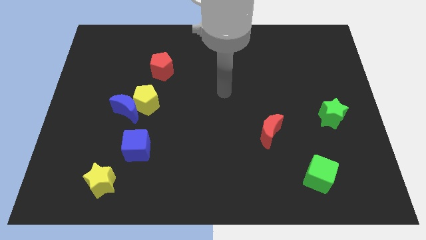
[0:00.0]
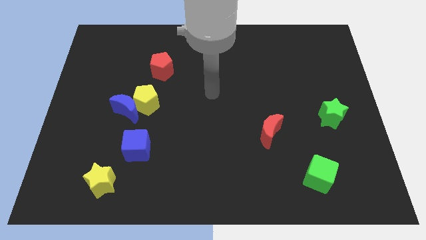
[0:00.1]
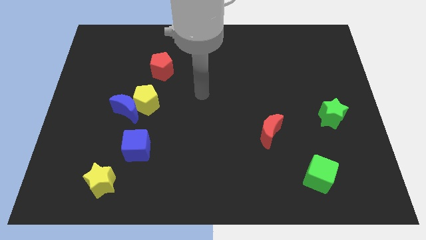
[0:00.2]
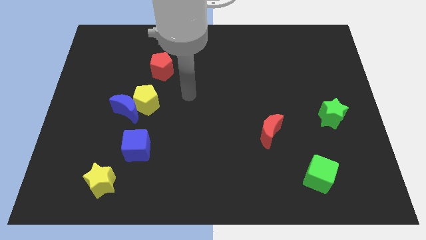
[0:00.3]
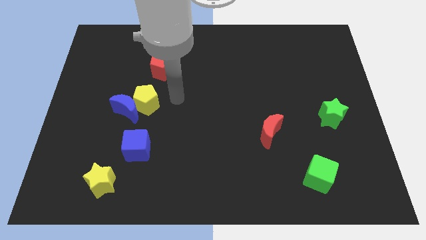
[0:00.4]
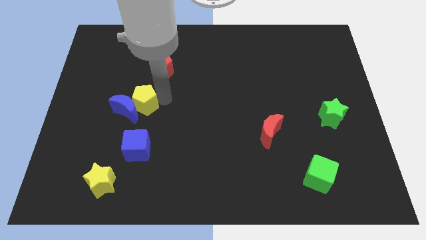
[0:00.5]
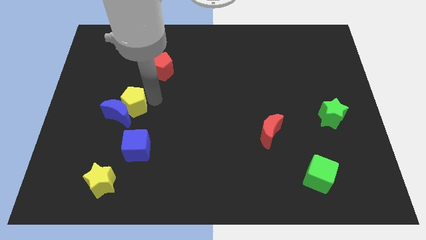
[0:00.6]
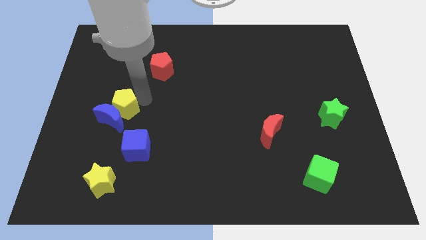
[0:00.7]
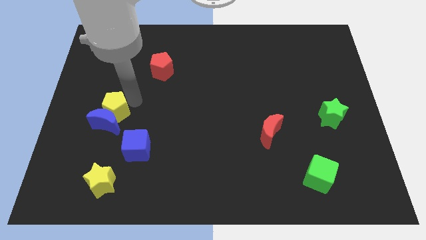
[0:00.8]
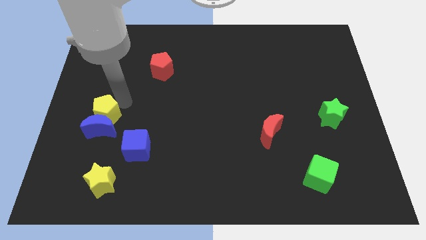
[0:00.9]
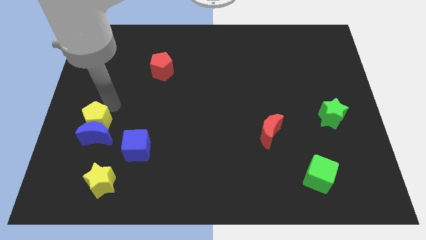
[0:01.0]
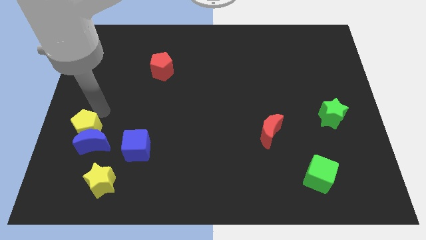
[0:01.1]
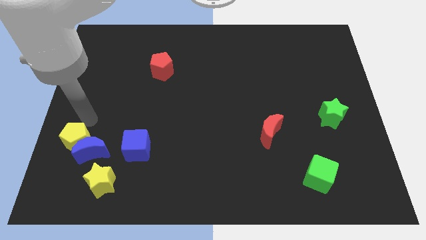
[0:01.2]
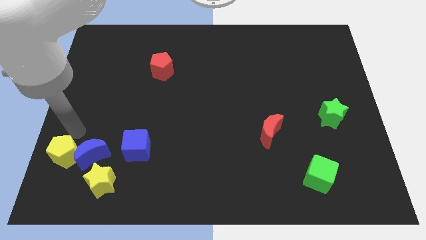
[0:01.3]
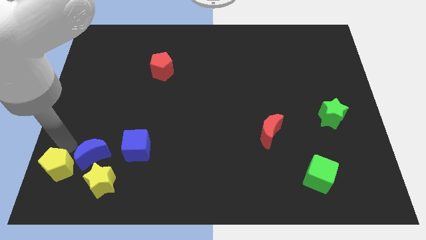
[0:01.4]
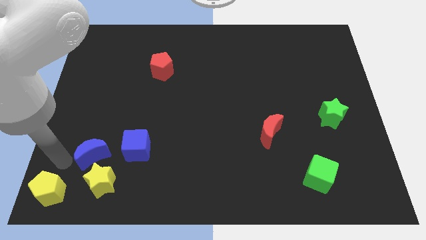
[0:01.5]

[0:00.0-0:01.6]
pull the blue moon apart from the yellow pentagon

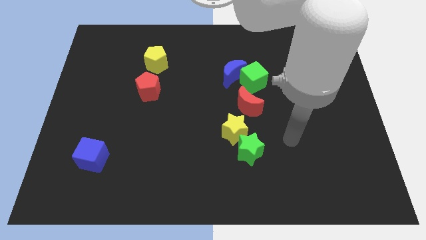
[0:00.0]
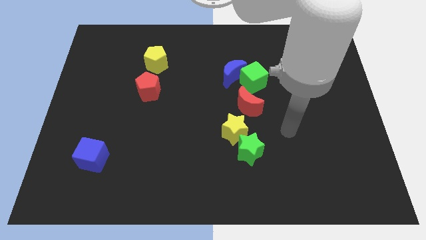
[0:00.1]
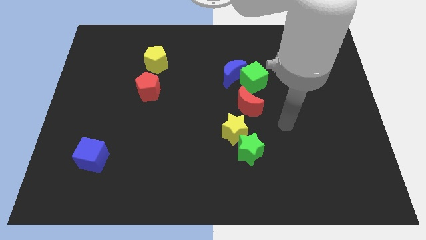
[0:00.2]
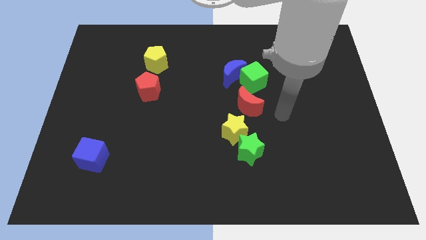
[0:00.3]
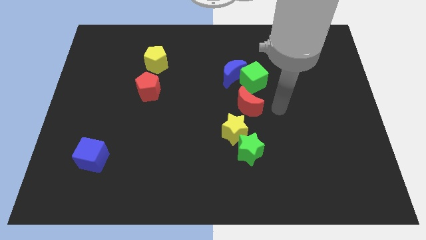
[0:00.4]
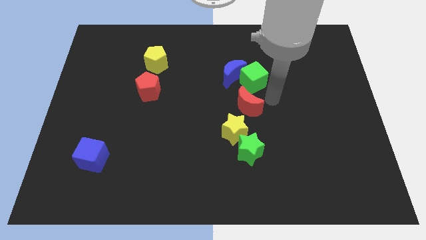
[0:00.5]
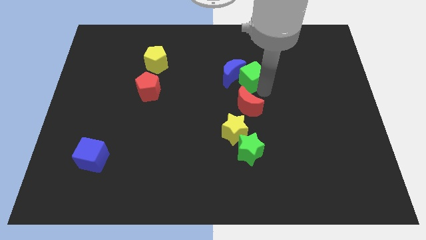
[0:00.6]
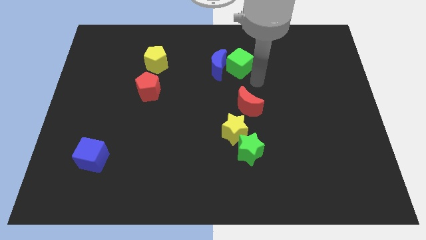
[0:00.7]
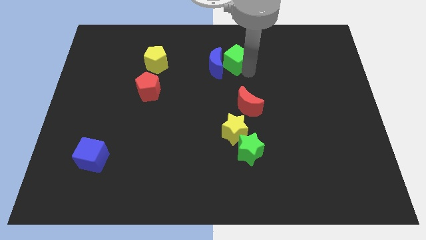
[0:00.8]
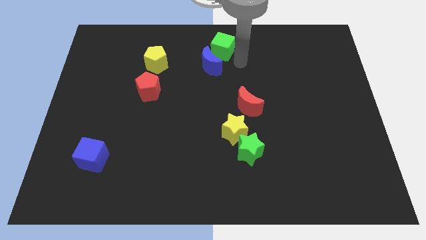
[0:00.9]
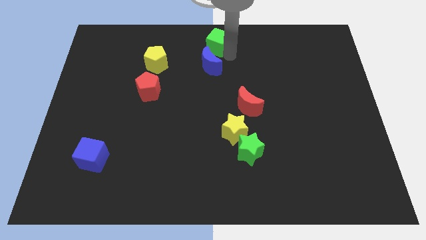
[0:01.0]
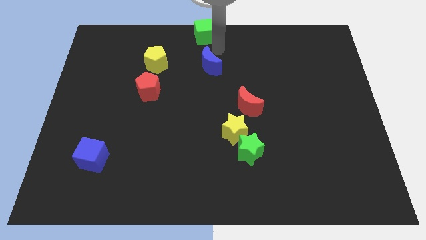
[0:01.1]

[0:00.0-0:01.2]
move the blue moon away from the green cube

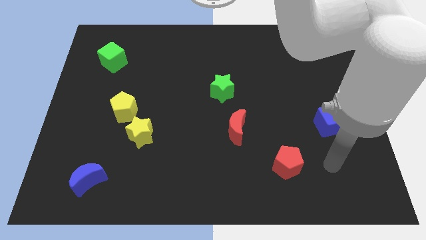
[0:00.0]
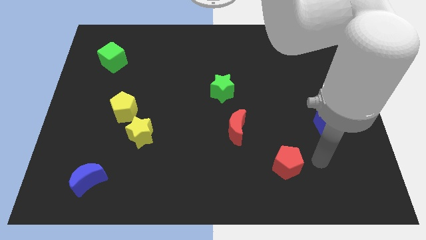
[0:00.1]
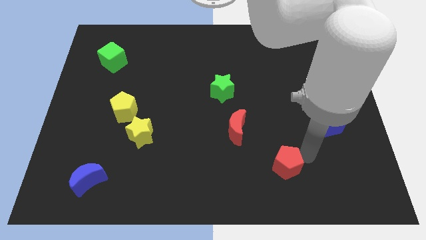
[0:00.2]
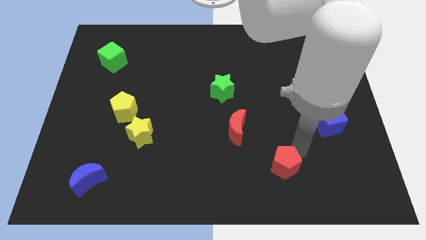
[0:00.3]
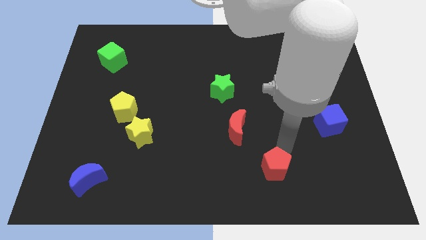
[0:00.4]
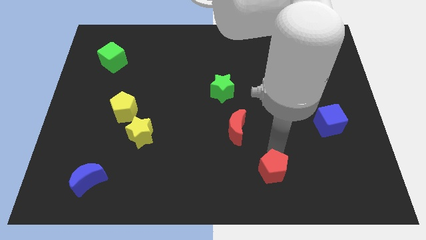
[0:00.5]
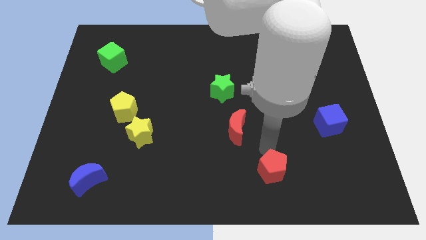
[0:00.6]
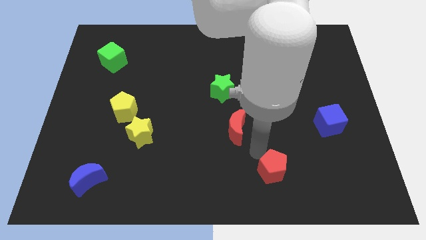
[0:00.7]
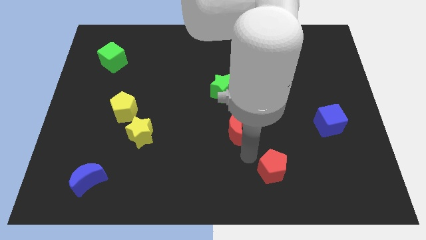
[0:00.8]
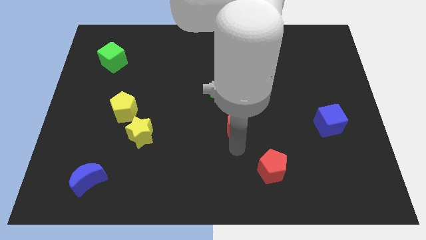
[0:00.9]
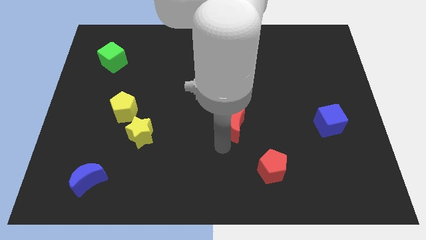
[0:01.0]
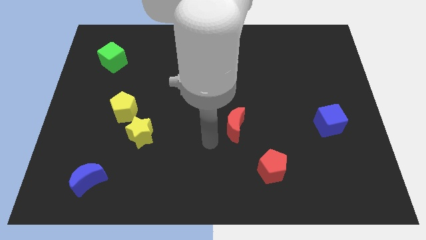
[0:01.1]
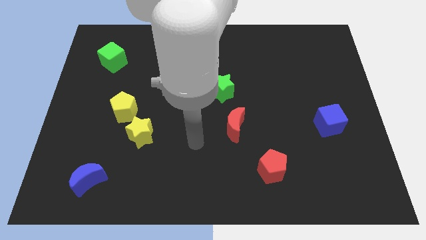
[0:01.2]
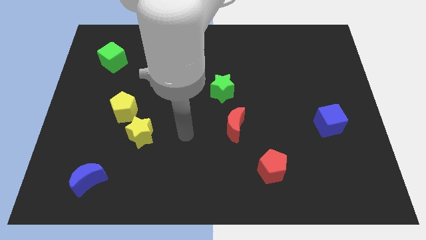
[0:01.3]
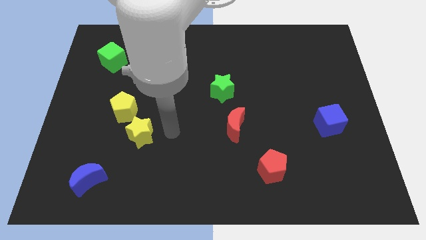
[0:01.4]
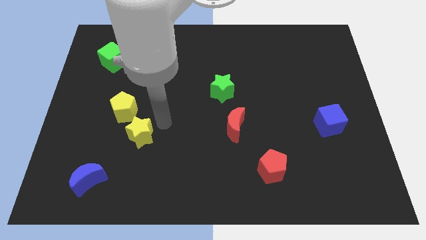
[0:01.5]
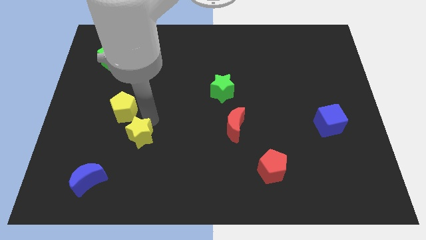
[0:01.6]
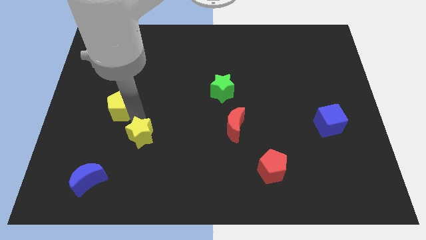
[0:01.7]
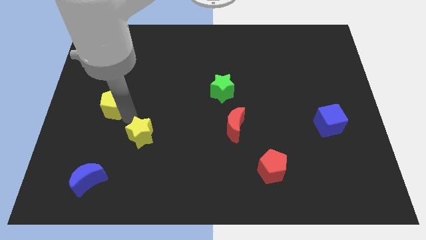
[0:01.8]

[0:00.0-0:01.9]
separate the yellow star from the yellow pentagon

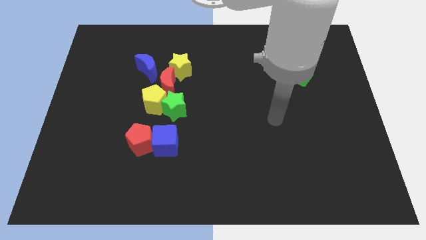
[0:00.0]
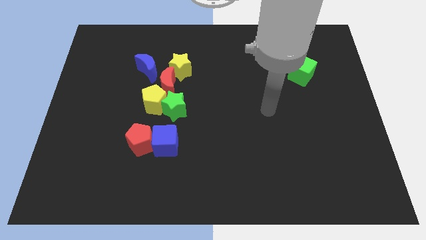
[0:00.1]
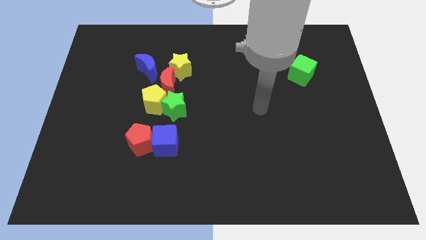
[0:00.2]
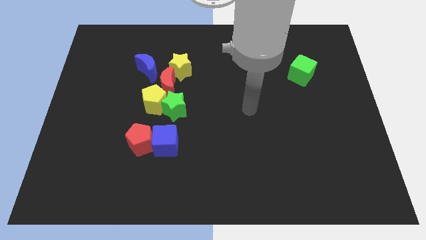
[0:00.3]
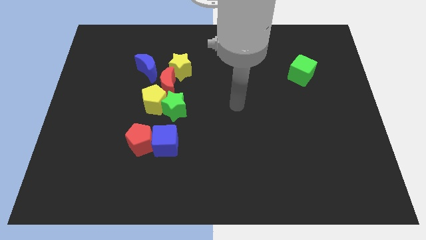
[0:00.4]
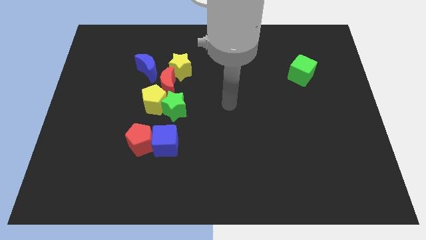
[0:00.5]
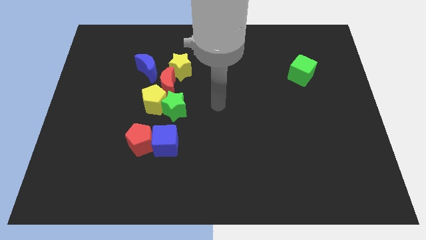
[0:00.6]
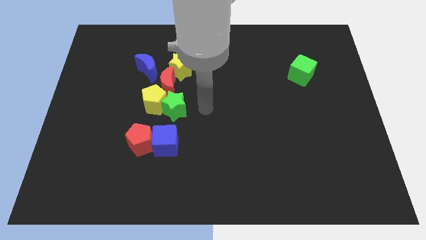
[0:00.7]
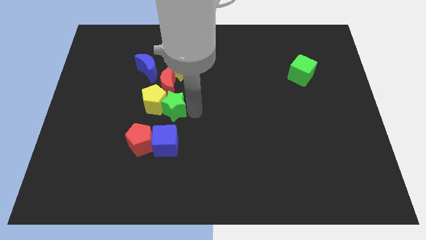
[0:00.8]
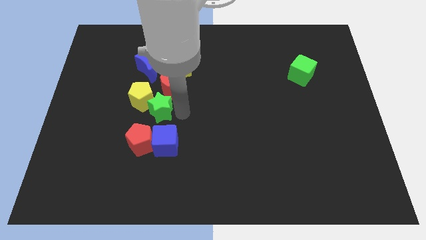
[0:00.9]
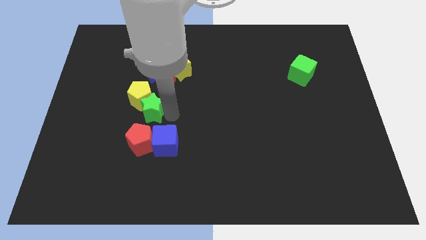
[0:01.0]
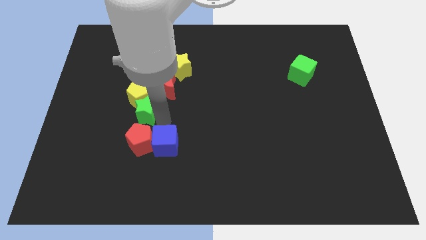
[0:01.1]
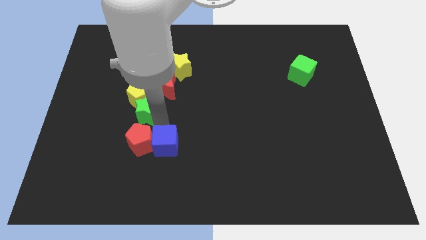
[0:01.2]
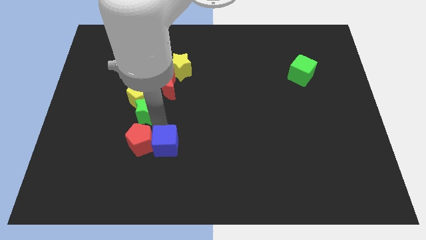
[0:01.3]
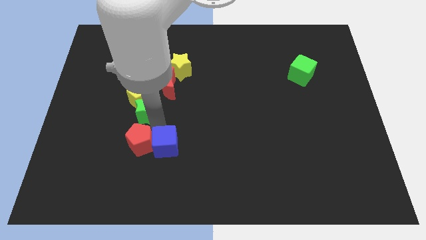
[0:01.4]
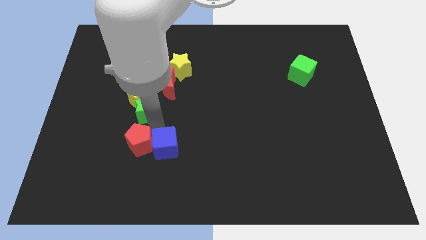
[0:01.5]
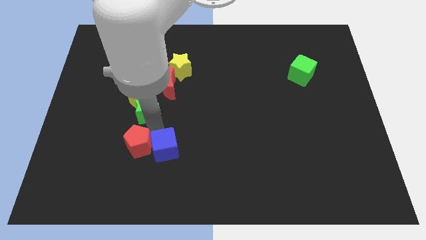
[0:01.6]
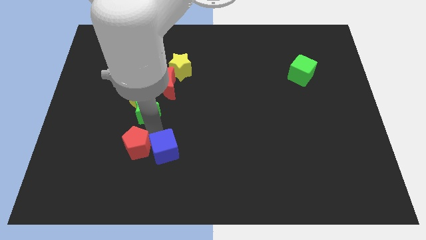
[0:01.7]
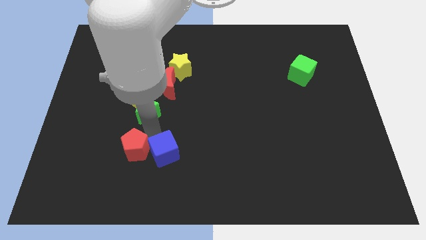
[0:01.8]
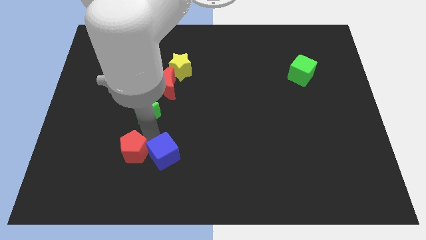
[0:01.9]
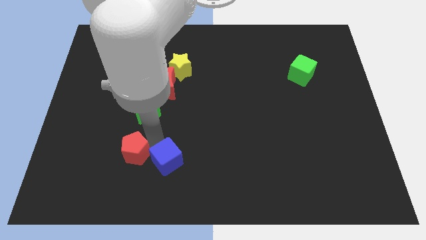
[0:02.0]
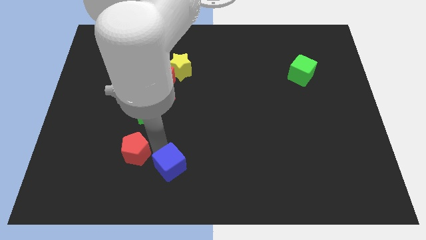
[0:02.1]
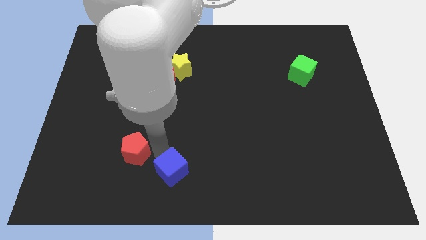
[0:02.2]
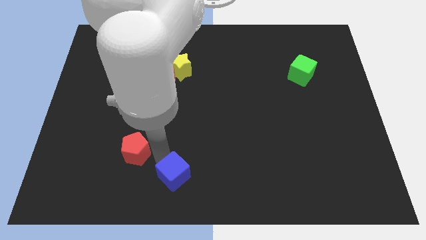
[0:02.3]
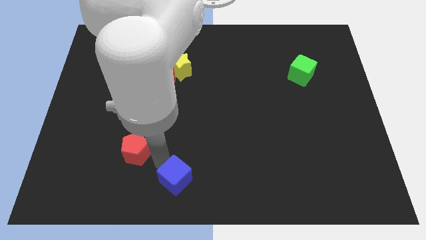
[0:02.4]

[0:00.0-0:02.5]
move the red pentagon away from the blue cube

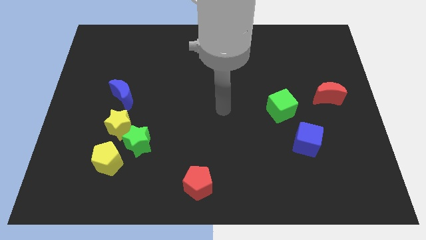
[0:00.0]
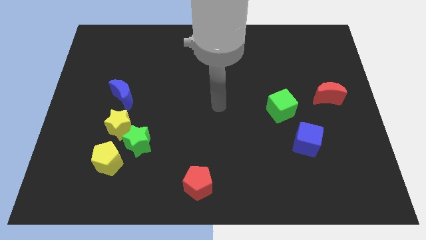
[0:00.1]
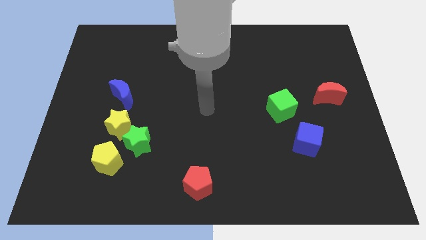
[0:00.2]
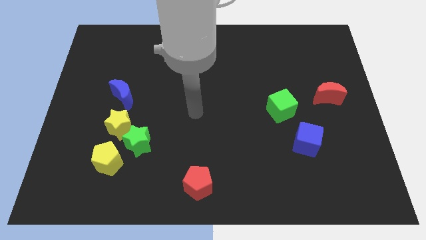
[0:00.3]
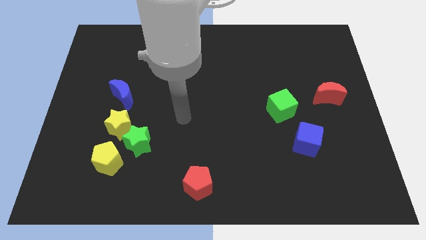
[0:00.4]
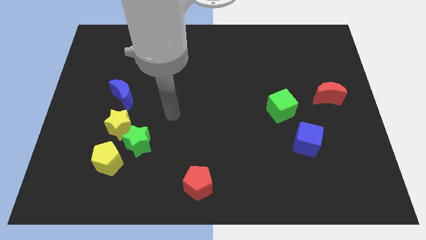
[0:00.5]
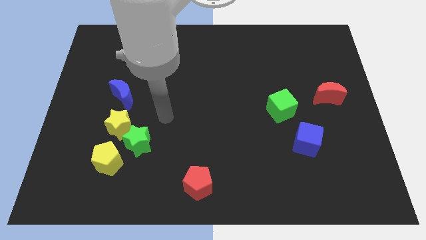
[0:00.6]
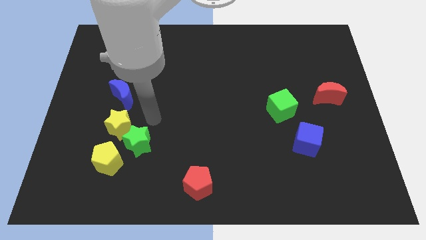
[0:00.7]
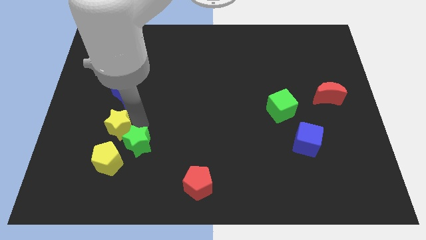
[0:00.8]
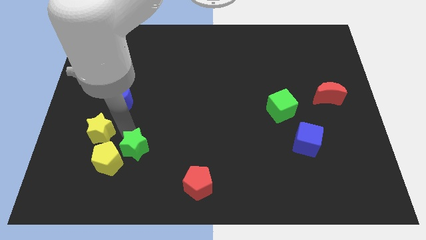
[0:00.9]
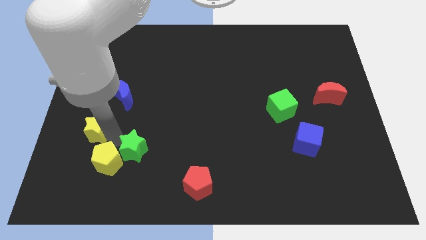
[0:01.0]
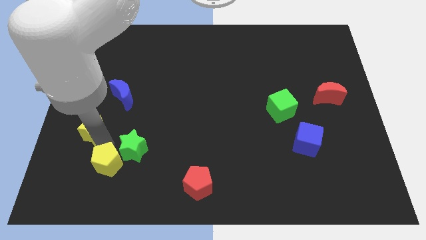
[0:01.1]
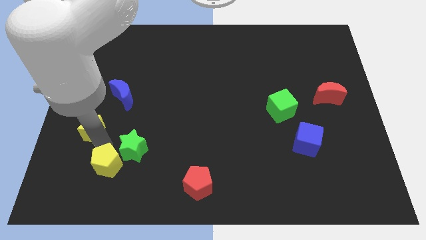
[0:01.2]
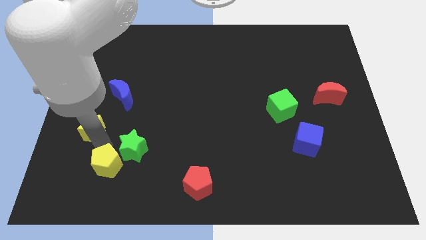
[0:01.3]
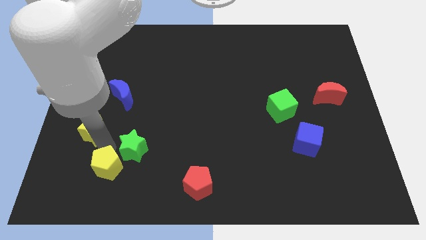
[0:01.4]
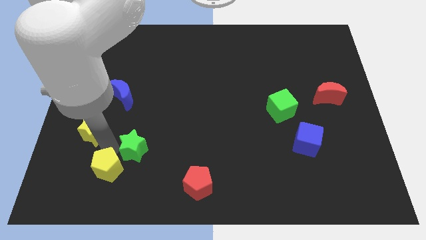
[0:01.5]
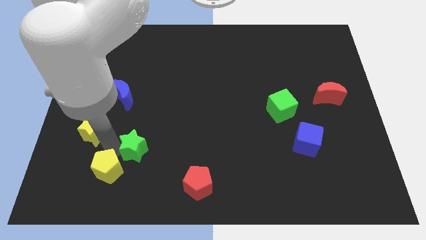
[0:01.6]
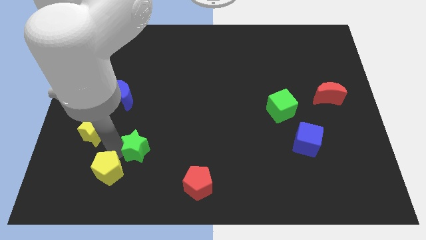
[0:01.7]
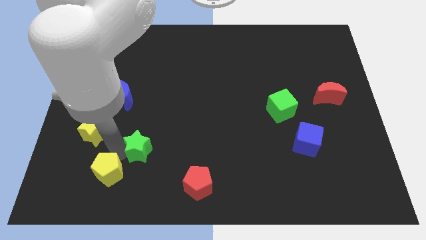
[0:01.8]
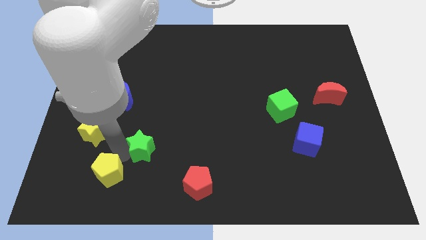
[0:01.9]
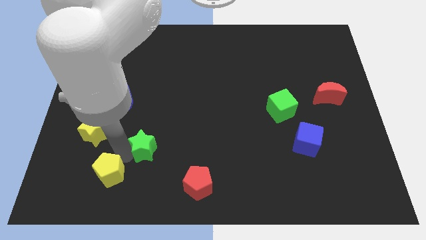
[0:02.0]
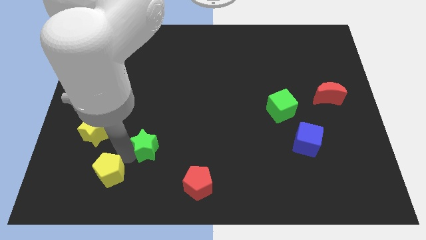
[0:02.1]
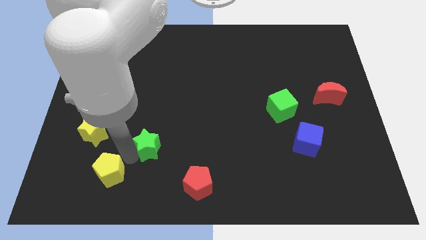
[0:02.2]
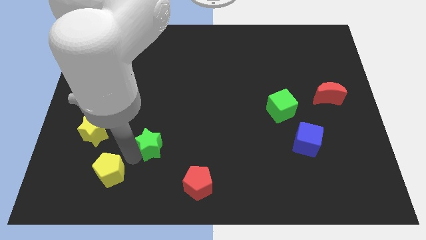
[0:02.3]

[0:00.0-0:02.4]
move the green star away from the yellow star and yellow pentagon
